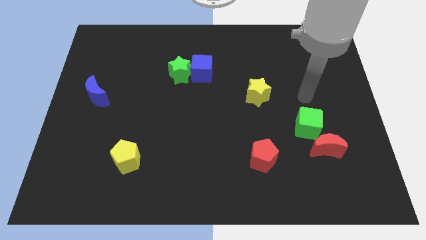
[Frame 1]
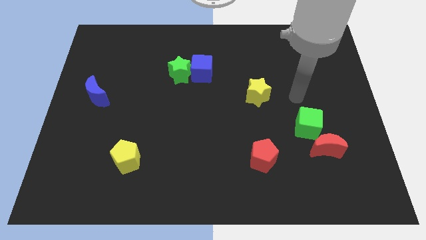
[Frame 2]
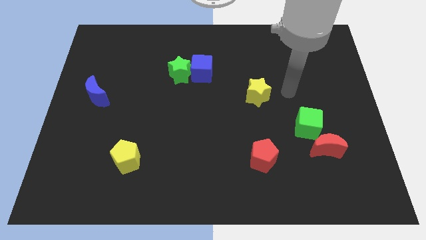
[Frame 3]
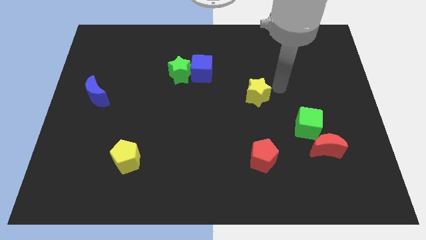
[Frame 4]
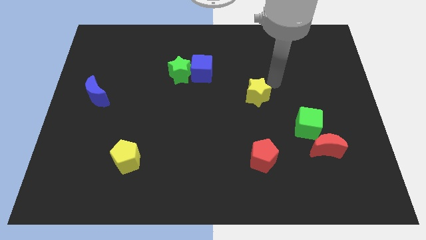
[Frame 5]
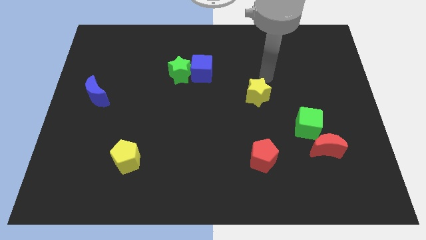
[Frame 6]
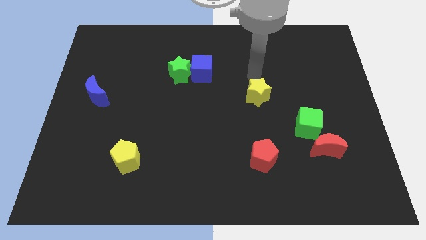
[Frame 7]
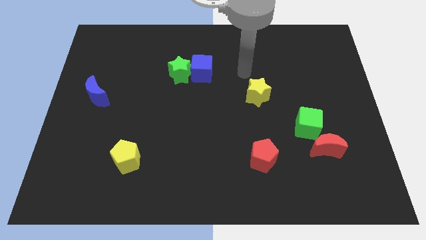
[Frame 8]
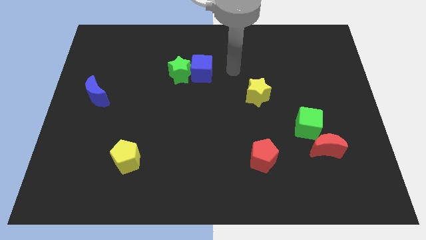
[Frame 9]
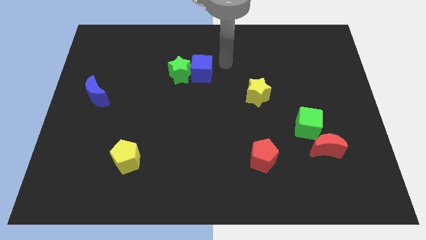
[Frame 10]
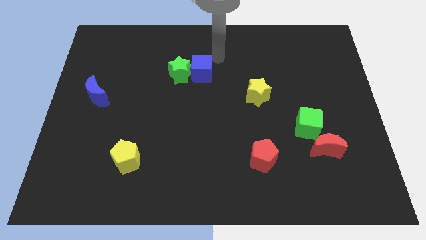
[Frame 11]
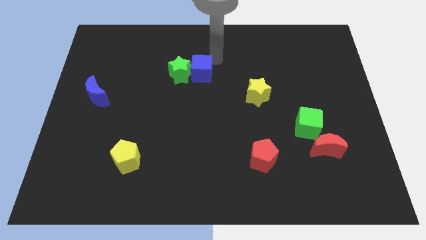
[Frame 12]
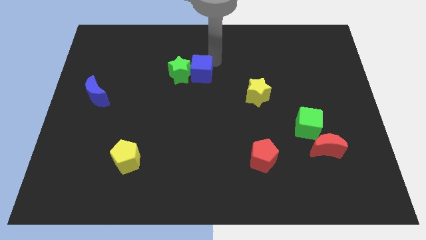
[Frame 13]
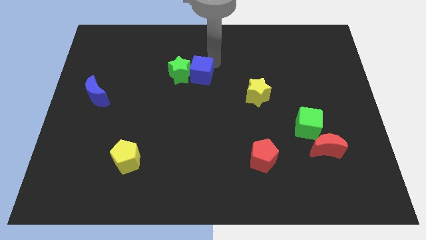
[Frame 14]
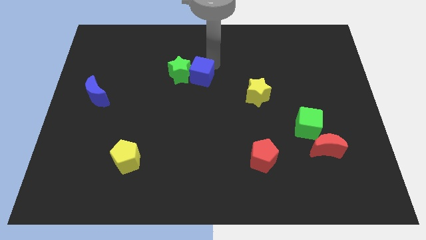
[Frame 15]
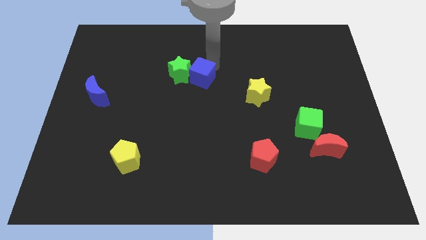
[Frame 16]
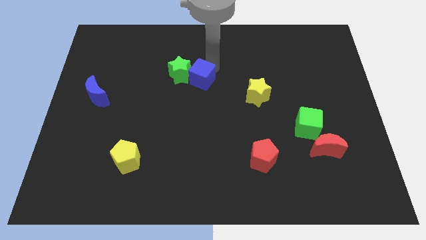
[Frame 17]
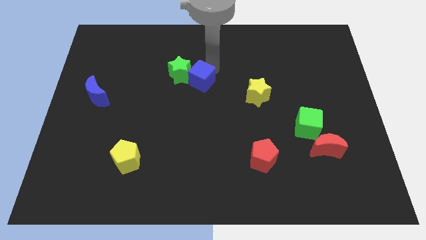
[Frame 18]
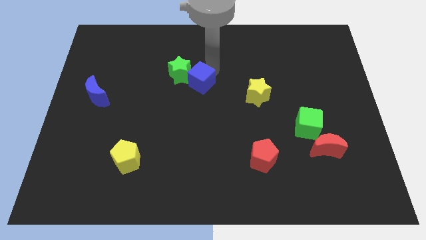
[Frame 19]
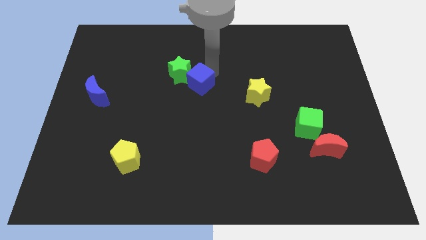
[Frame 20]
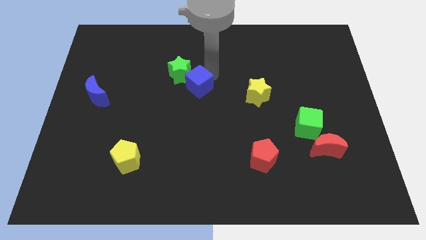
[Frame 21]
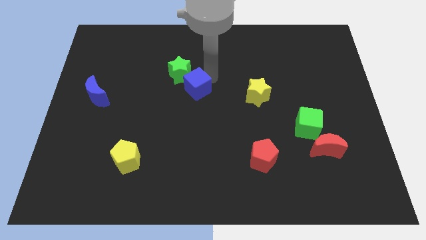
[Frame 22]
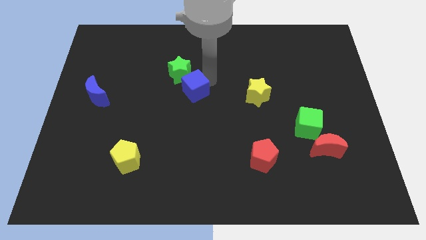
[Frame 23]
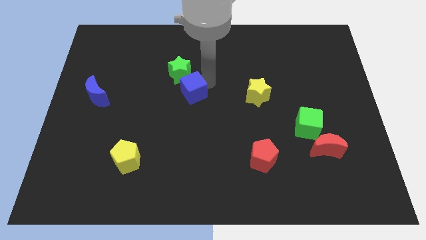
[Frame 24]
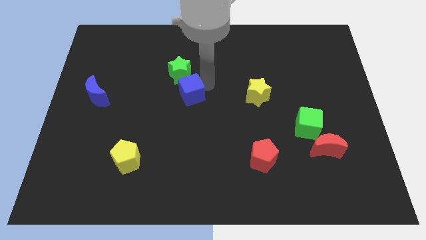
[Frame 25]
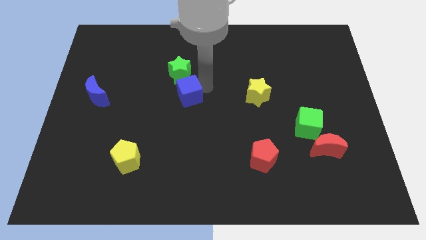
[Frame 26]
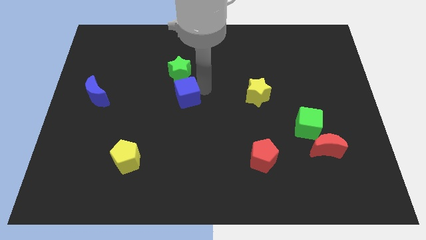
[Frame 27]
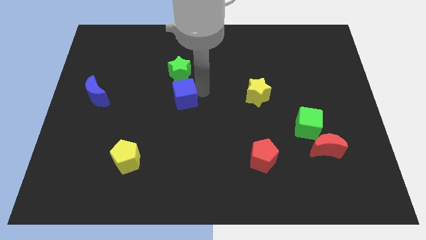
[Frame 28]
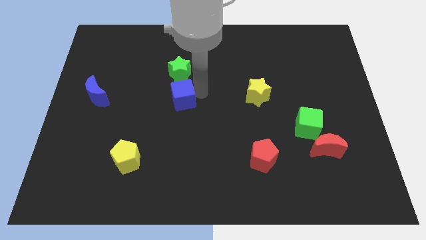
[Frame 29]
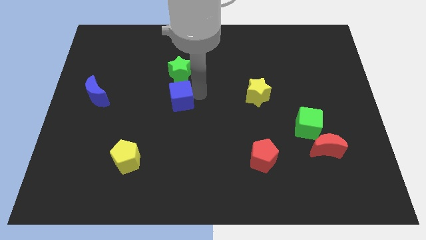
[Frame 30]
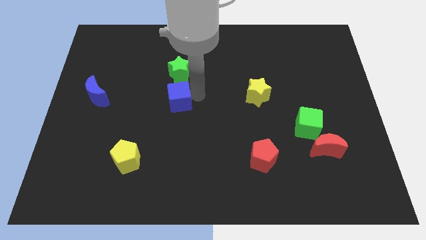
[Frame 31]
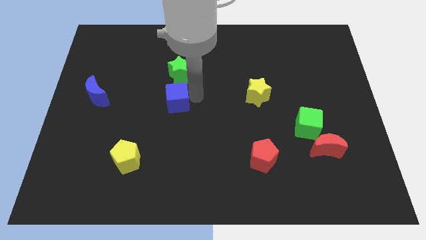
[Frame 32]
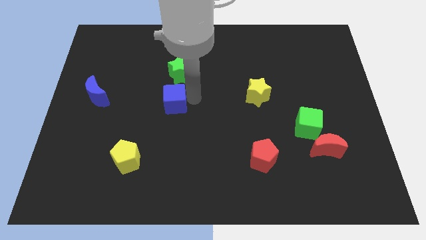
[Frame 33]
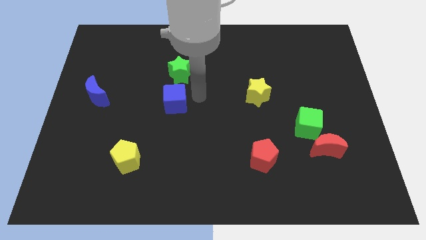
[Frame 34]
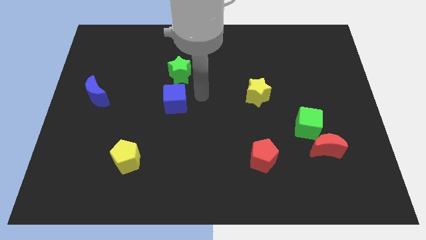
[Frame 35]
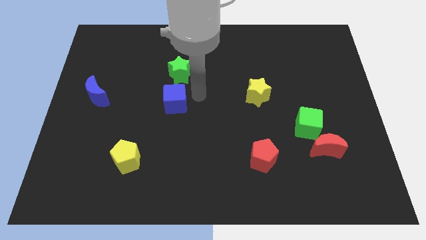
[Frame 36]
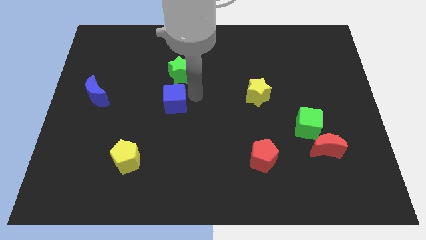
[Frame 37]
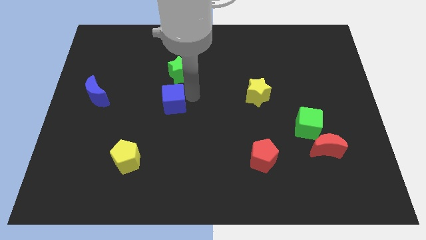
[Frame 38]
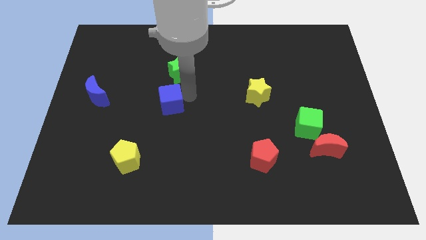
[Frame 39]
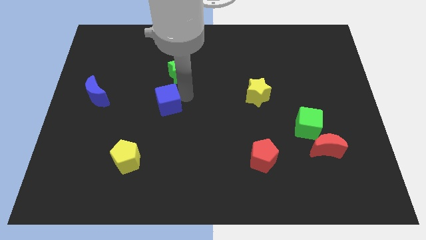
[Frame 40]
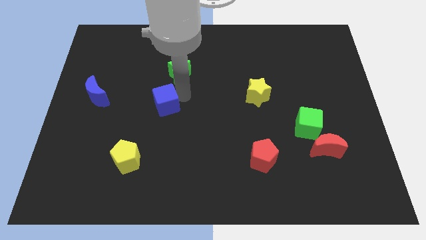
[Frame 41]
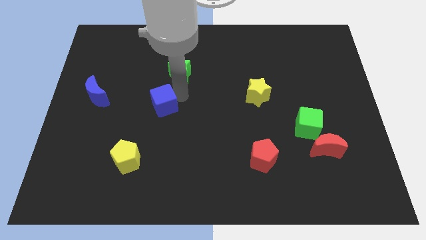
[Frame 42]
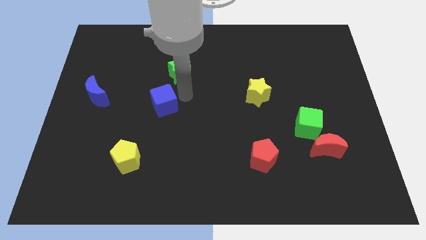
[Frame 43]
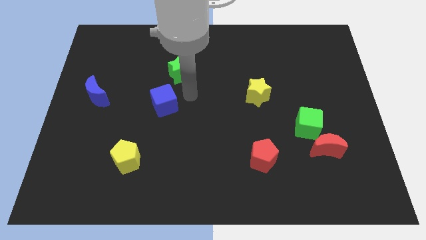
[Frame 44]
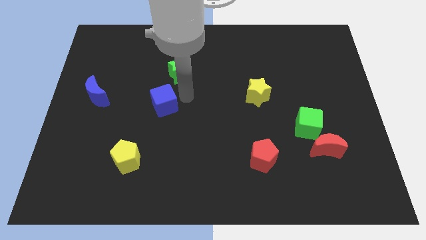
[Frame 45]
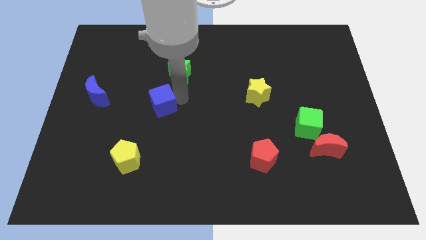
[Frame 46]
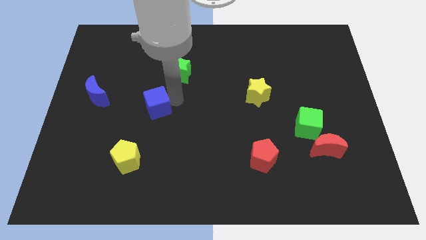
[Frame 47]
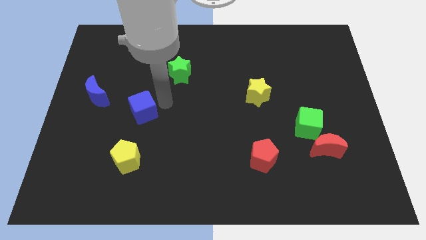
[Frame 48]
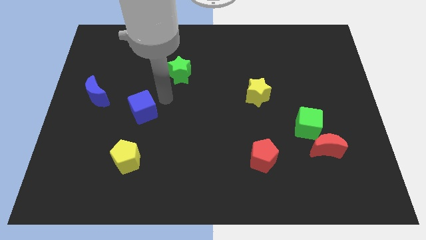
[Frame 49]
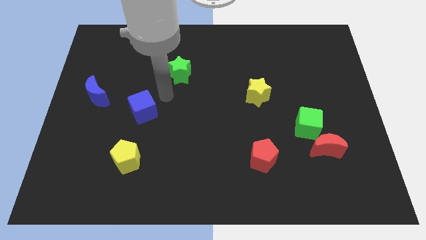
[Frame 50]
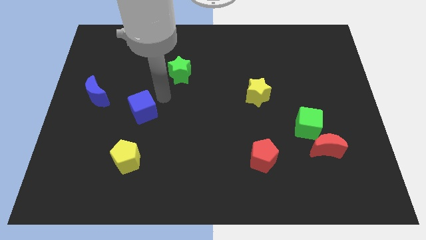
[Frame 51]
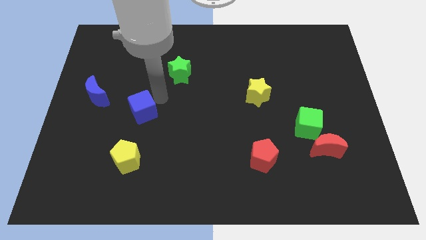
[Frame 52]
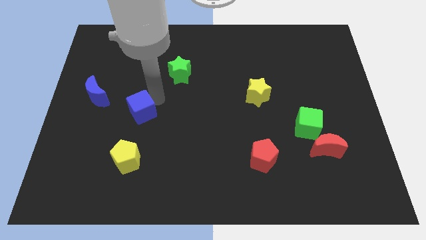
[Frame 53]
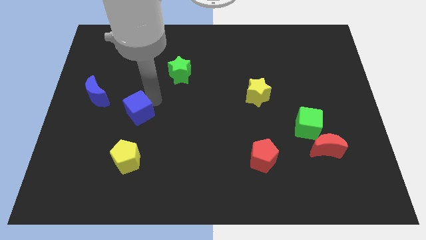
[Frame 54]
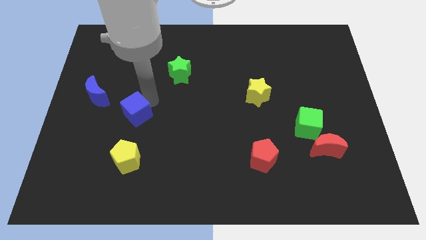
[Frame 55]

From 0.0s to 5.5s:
push the blue cube diagonally downwards and left

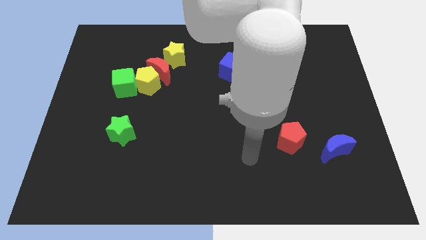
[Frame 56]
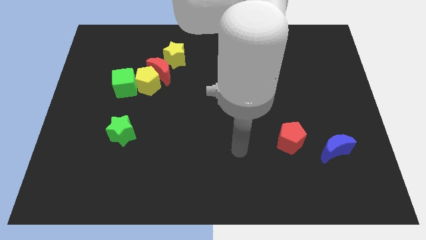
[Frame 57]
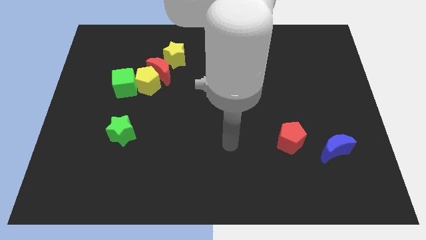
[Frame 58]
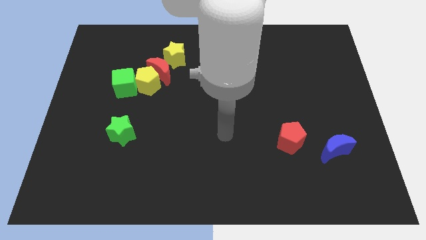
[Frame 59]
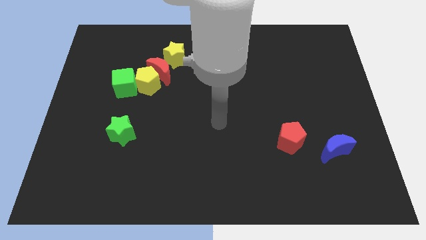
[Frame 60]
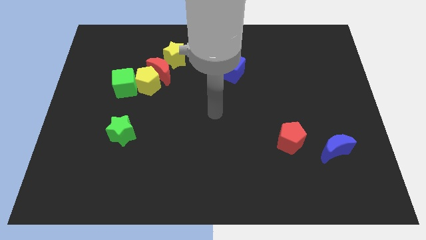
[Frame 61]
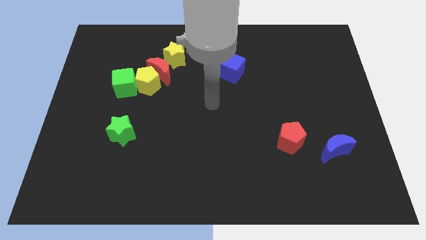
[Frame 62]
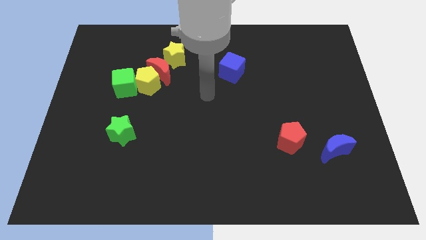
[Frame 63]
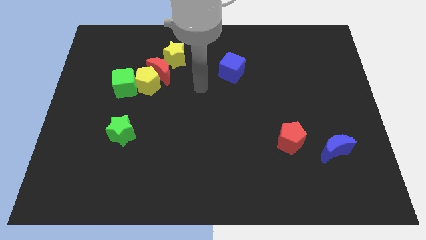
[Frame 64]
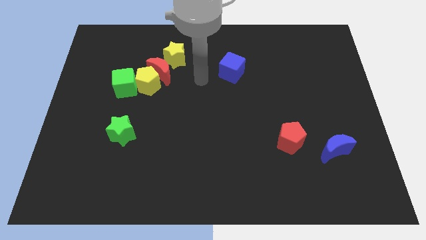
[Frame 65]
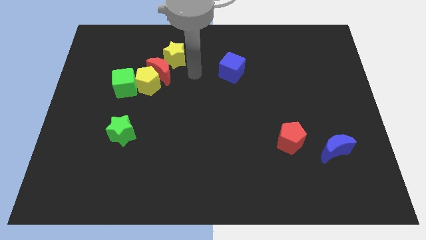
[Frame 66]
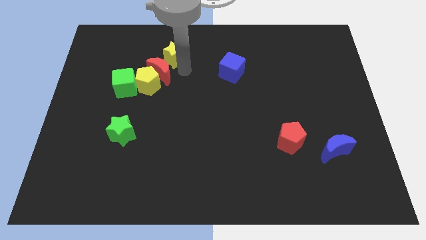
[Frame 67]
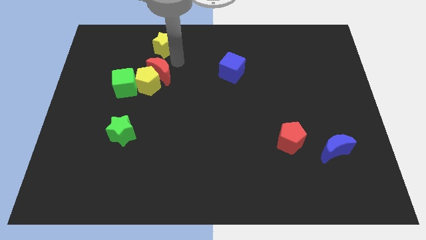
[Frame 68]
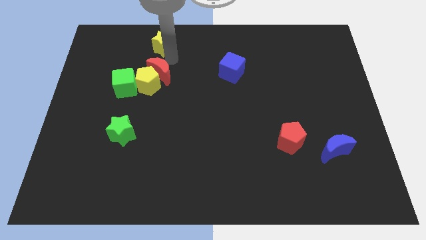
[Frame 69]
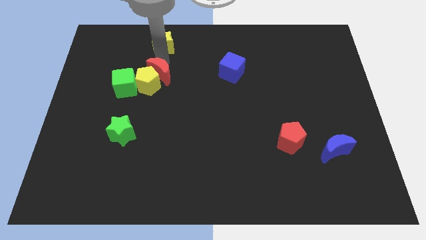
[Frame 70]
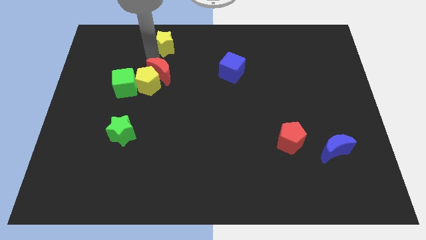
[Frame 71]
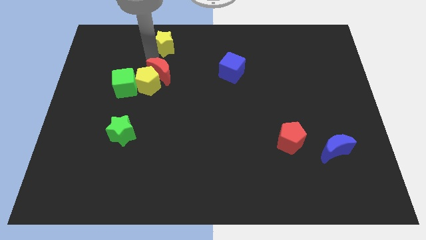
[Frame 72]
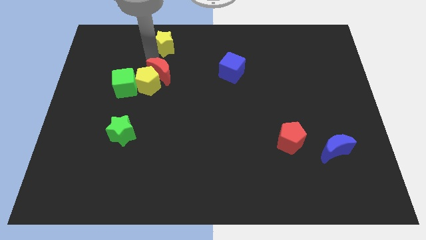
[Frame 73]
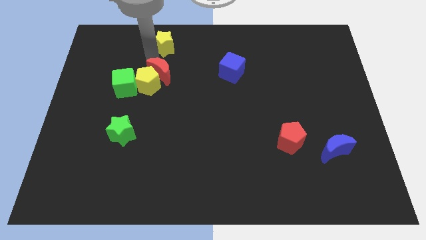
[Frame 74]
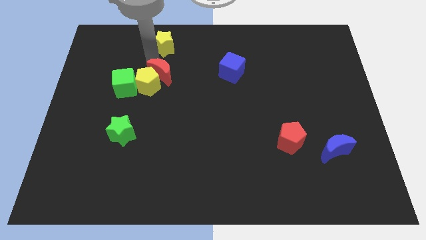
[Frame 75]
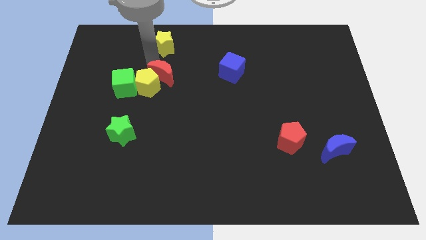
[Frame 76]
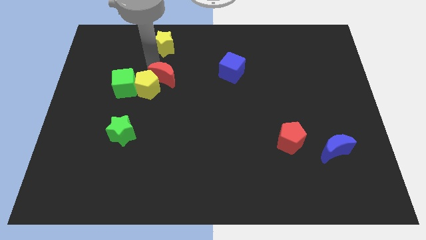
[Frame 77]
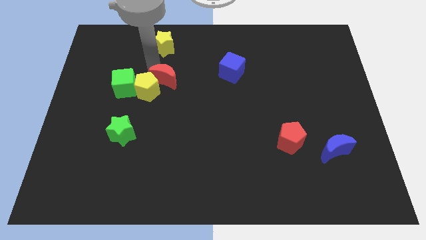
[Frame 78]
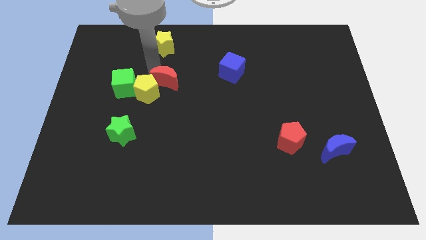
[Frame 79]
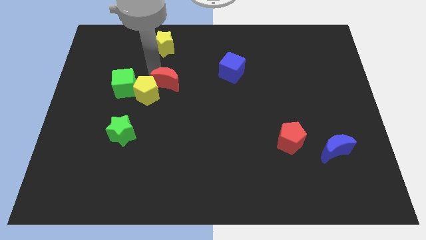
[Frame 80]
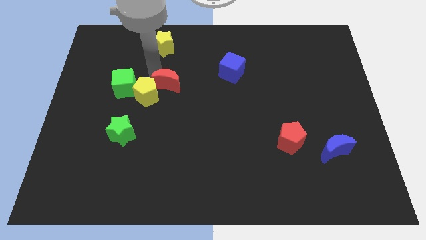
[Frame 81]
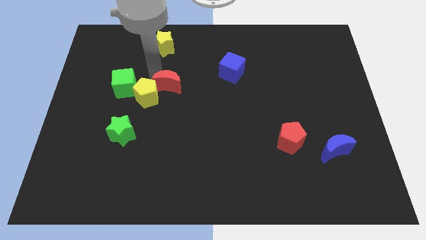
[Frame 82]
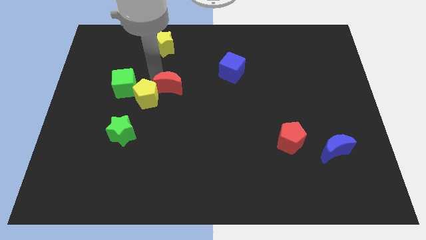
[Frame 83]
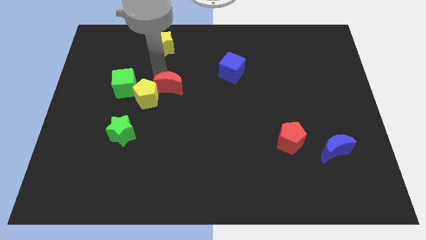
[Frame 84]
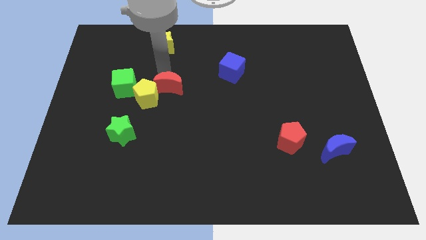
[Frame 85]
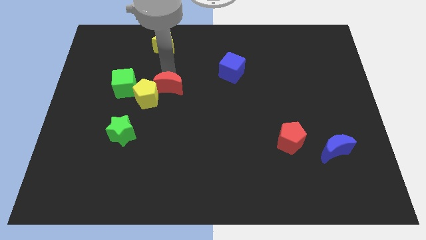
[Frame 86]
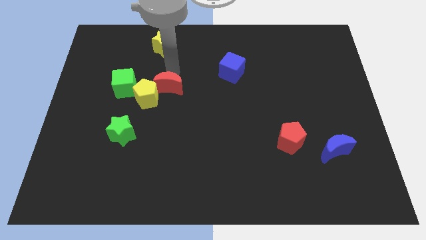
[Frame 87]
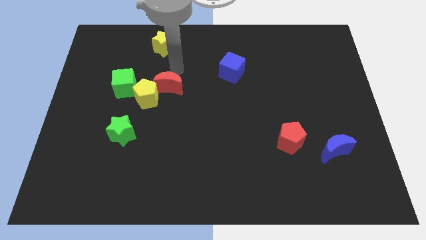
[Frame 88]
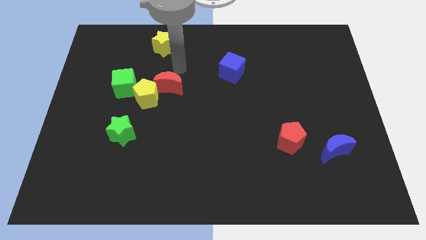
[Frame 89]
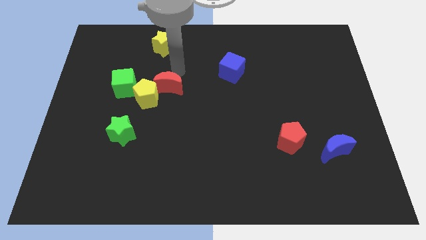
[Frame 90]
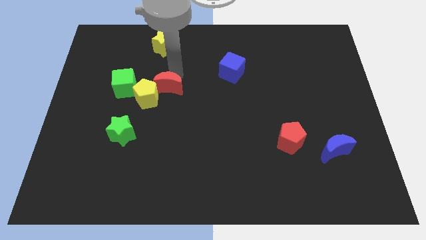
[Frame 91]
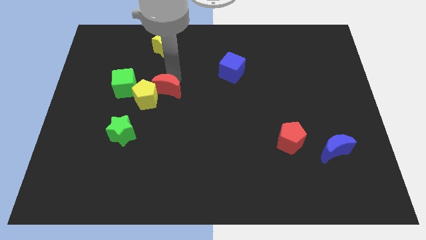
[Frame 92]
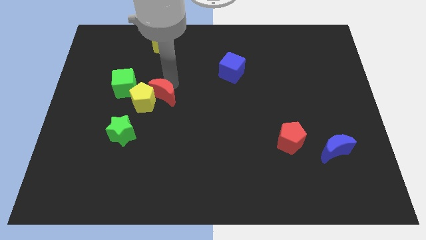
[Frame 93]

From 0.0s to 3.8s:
push the red moon a little bit downwards
